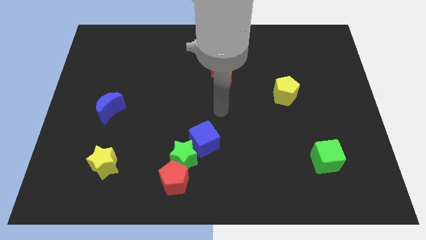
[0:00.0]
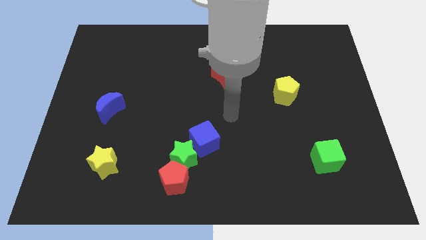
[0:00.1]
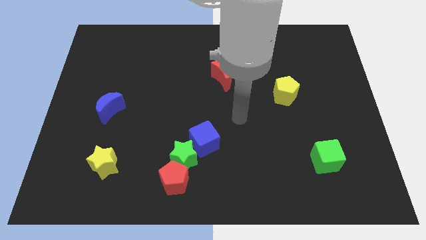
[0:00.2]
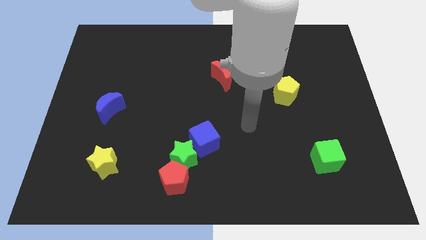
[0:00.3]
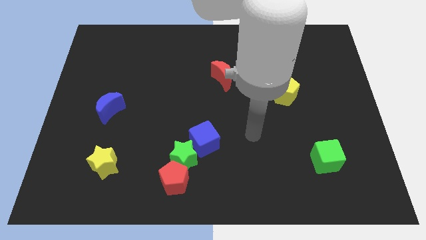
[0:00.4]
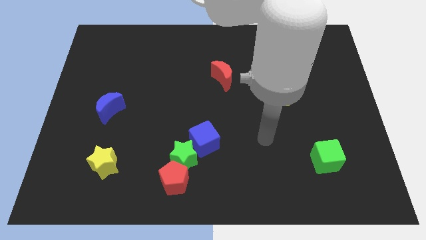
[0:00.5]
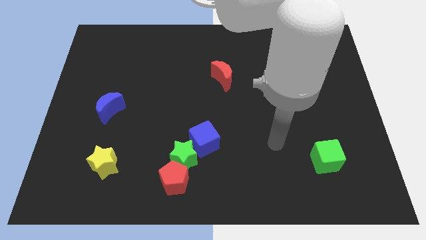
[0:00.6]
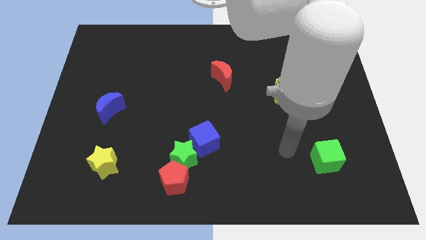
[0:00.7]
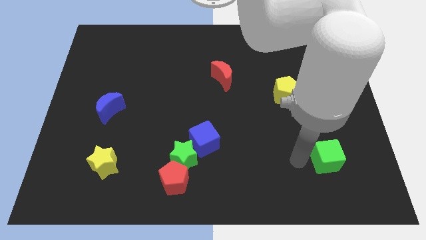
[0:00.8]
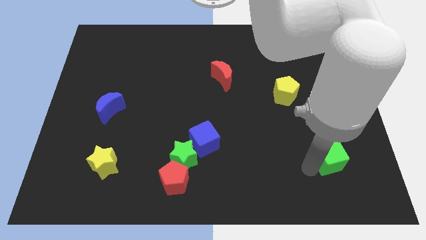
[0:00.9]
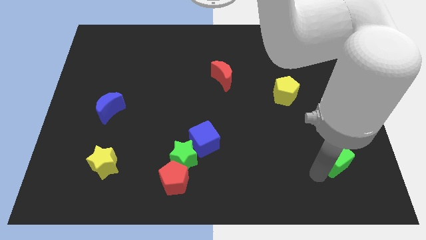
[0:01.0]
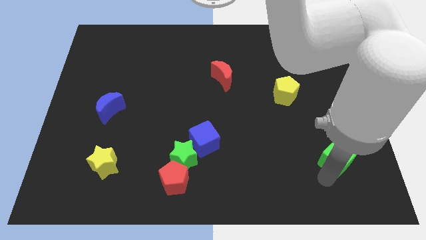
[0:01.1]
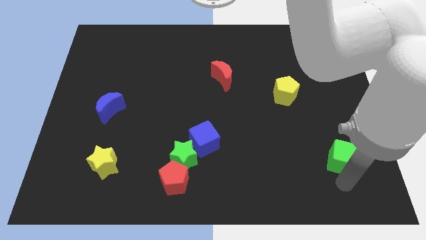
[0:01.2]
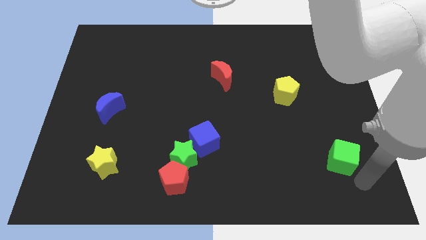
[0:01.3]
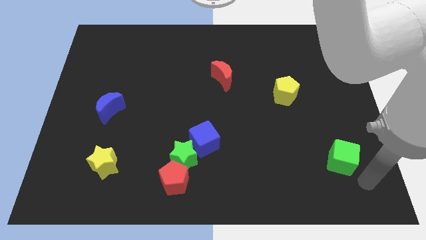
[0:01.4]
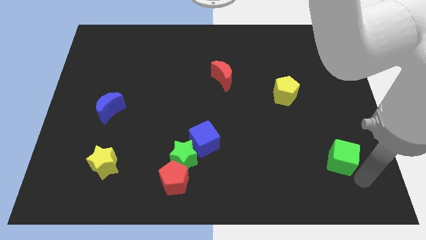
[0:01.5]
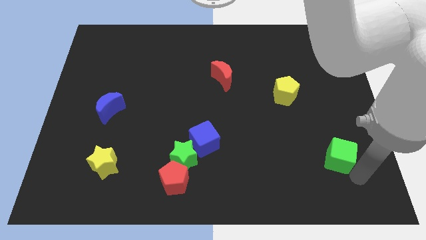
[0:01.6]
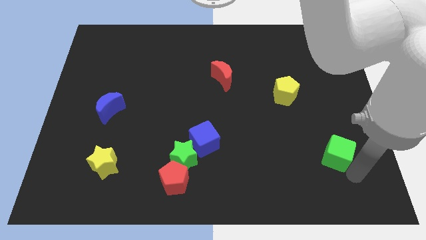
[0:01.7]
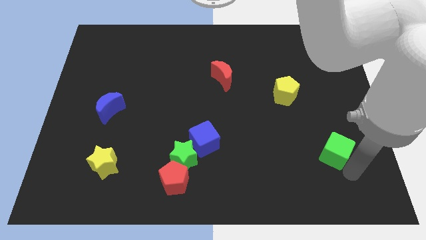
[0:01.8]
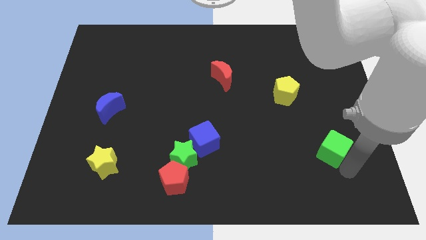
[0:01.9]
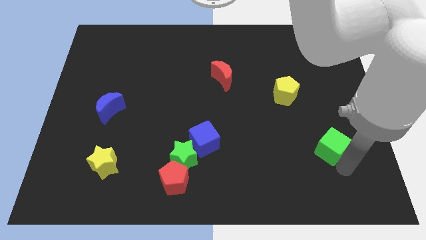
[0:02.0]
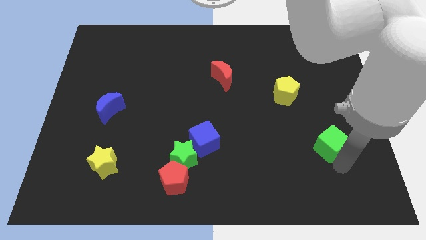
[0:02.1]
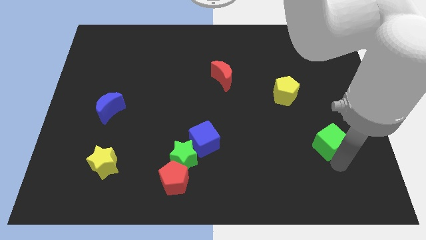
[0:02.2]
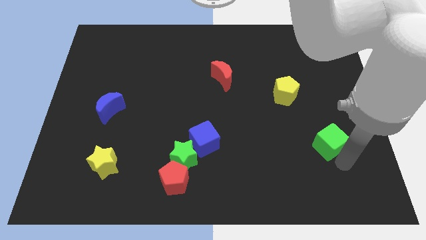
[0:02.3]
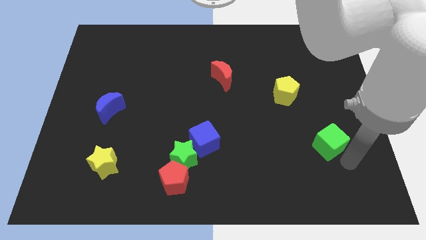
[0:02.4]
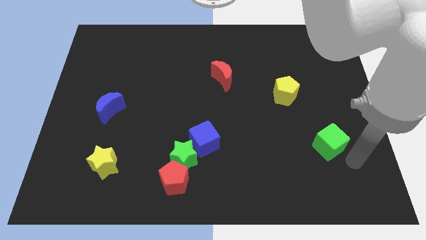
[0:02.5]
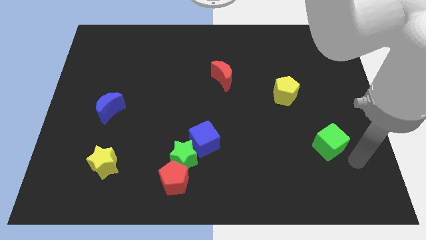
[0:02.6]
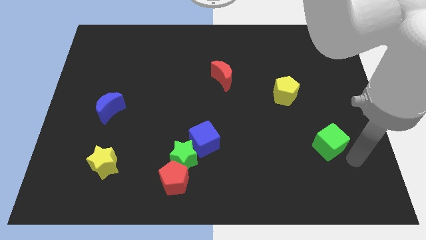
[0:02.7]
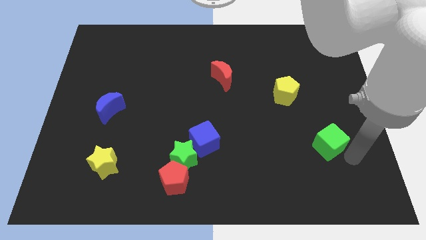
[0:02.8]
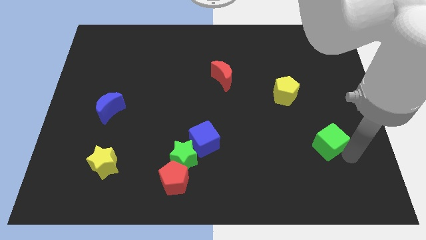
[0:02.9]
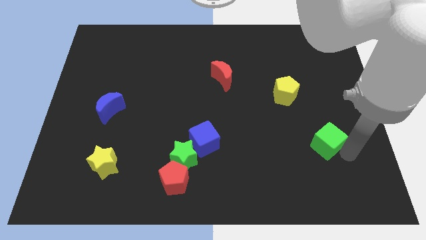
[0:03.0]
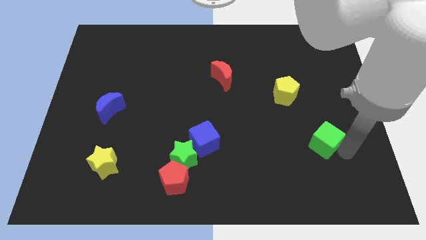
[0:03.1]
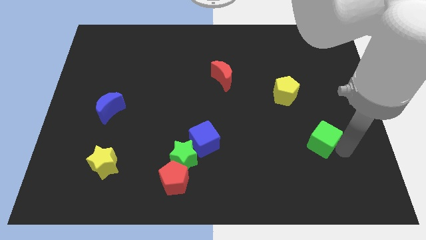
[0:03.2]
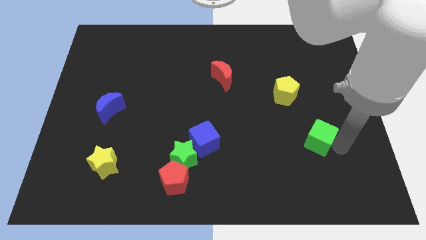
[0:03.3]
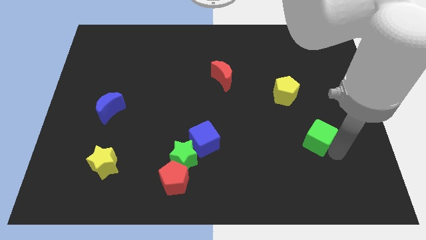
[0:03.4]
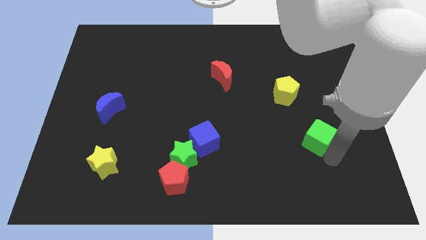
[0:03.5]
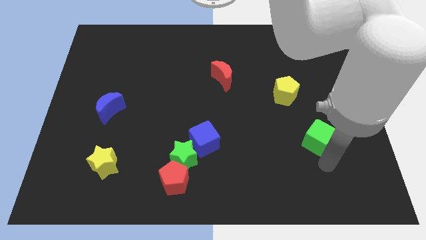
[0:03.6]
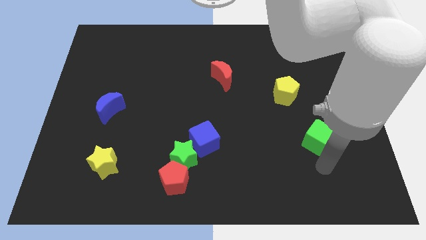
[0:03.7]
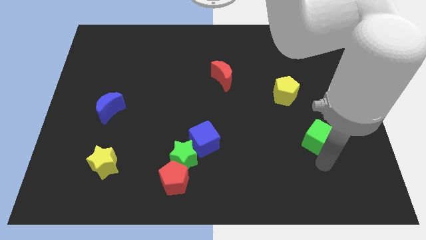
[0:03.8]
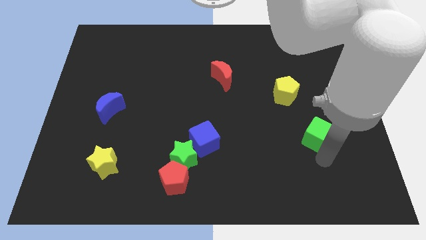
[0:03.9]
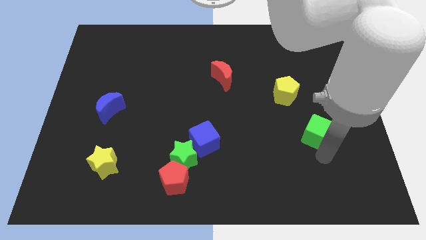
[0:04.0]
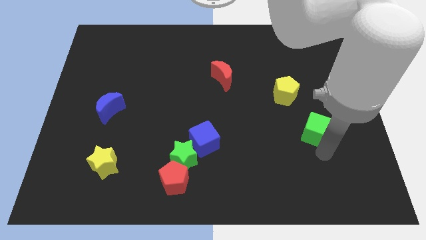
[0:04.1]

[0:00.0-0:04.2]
push the green cube a little bit upwards

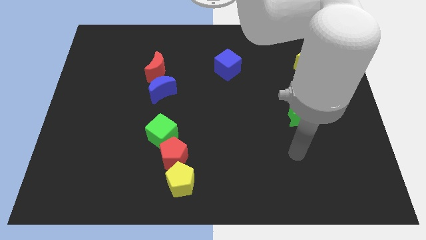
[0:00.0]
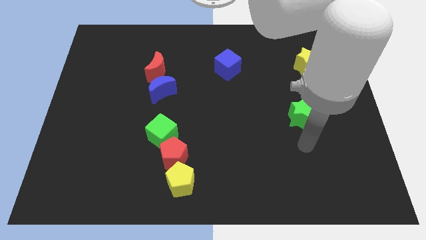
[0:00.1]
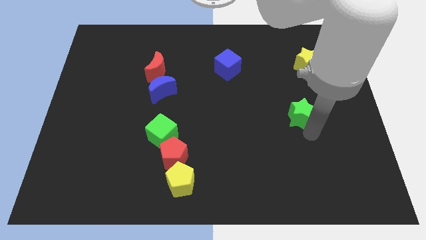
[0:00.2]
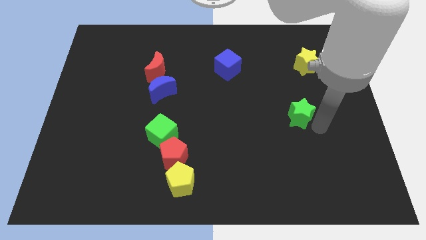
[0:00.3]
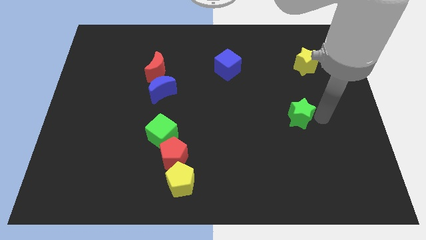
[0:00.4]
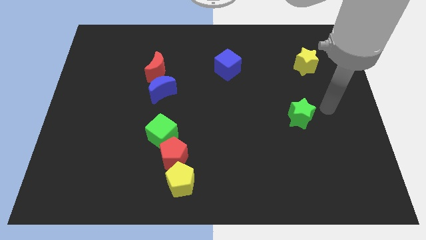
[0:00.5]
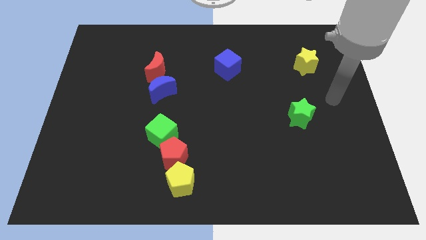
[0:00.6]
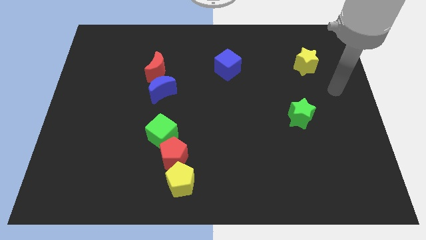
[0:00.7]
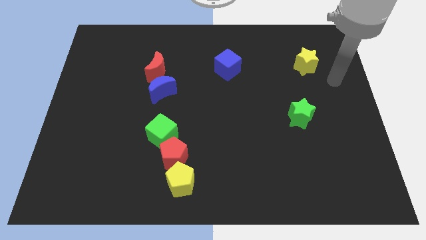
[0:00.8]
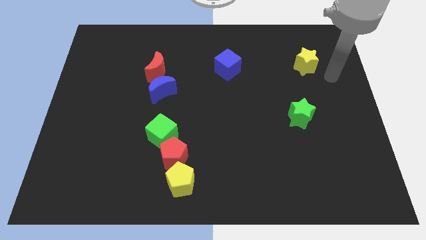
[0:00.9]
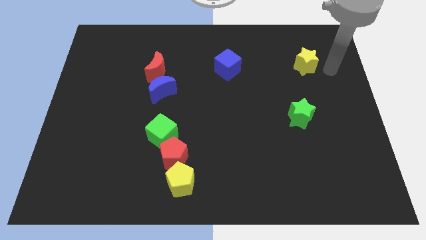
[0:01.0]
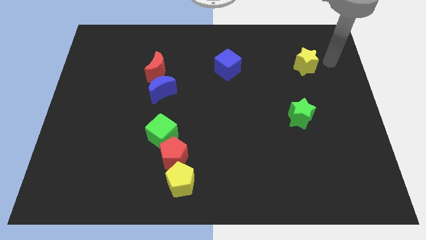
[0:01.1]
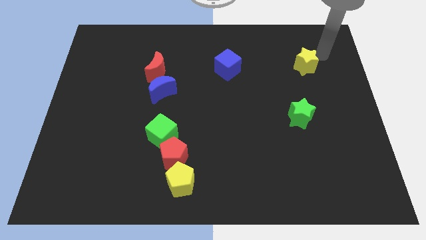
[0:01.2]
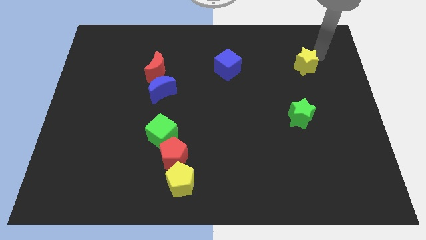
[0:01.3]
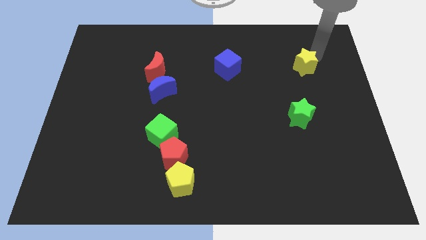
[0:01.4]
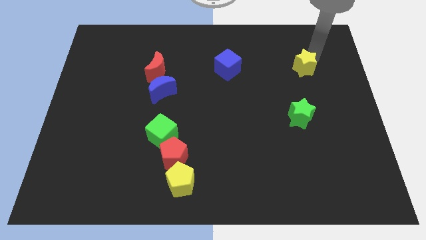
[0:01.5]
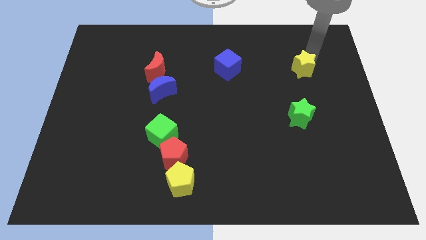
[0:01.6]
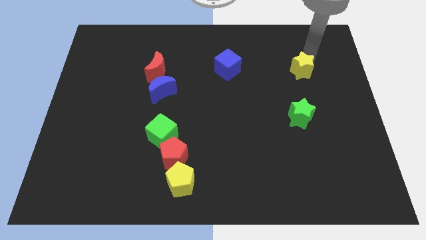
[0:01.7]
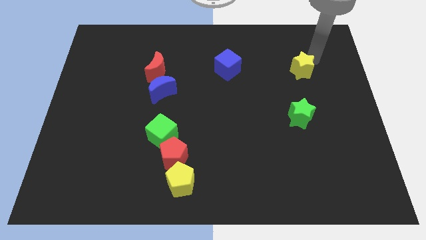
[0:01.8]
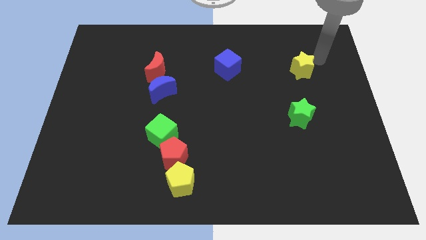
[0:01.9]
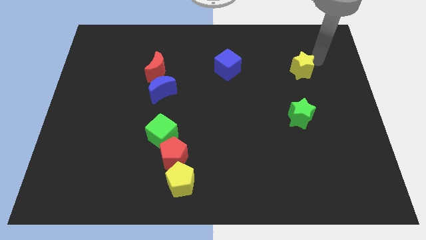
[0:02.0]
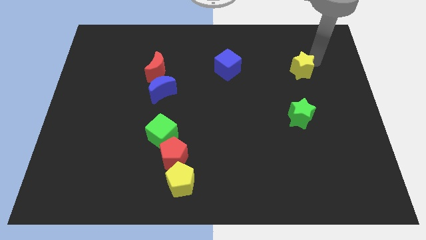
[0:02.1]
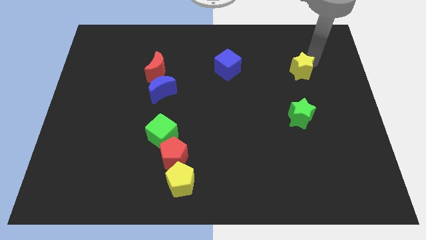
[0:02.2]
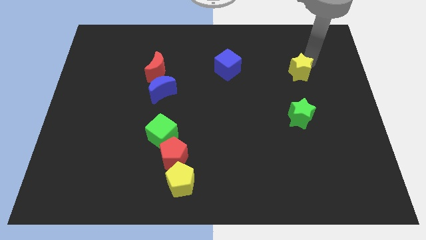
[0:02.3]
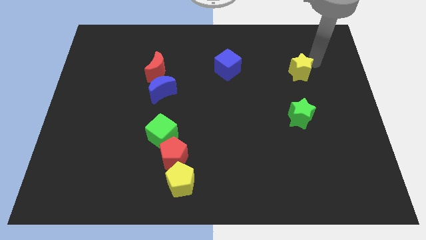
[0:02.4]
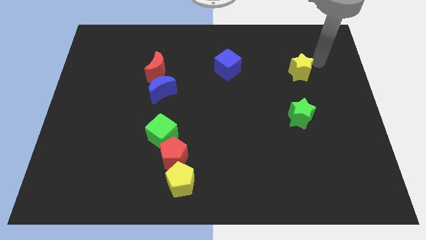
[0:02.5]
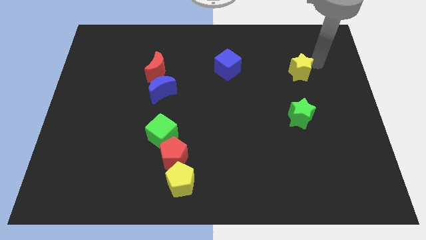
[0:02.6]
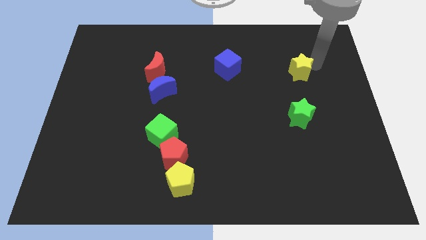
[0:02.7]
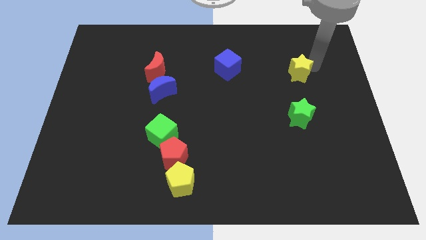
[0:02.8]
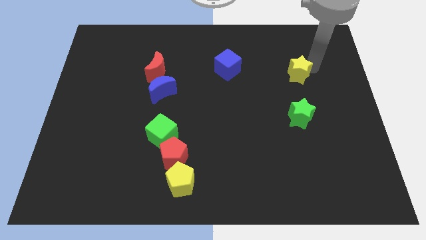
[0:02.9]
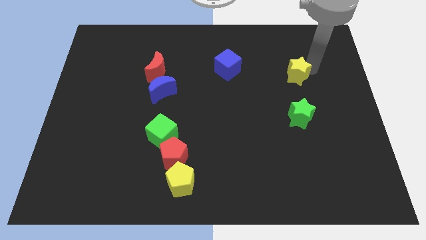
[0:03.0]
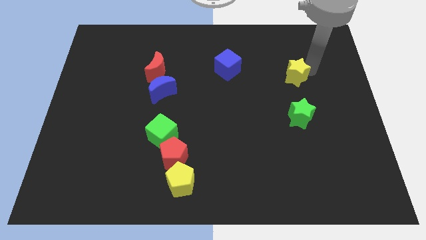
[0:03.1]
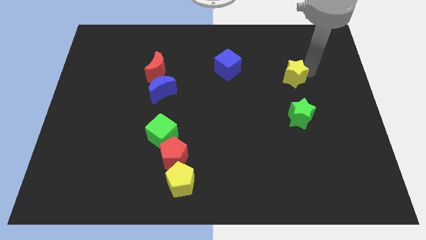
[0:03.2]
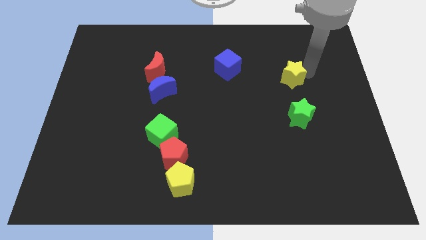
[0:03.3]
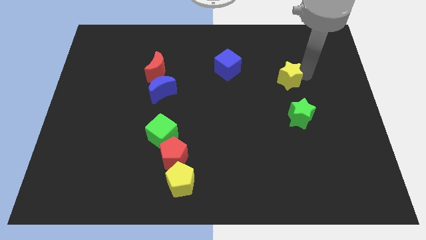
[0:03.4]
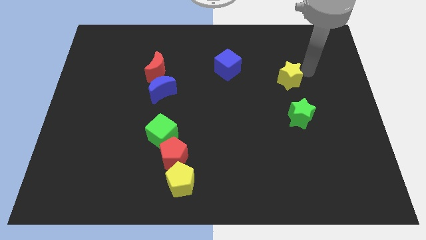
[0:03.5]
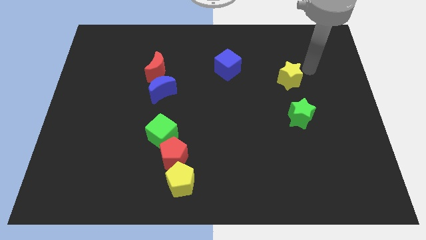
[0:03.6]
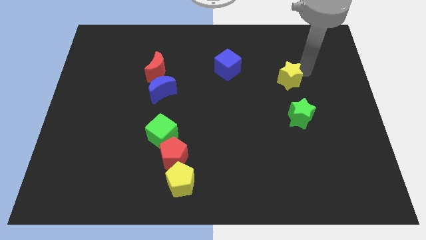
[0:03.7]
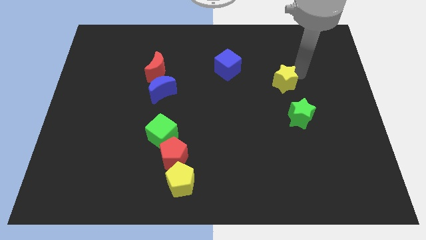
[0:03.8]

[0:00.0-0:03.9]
slightly move the yellow star down and then to the left
